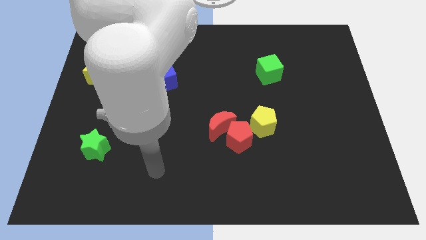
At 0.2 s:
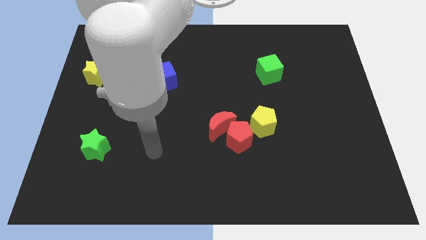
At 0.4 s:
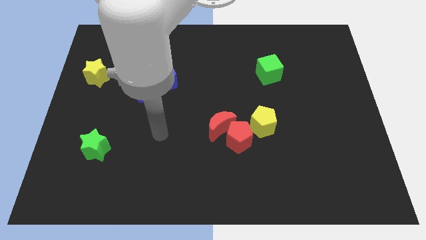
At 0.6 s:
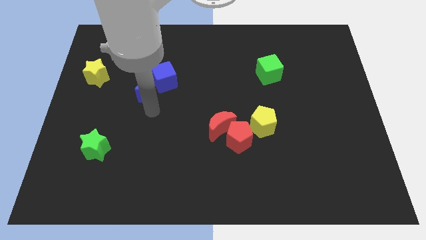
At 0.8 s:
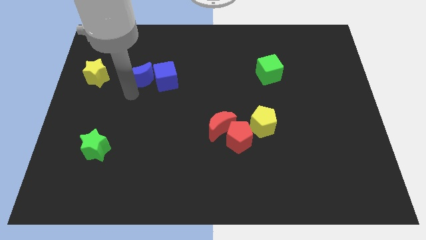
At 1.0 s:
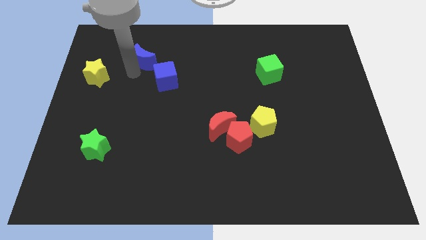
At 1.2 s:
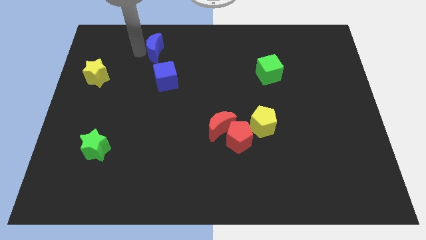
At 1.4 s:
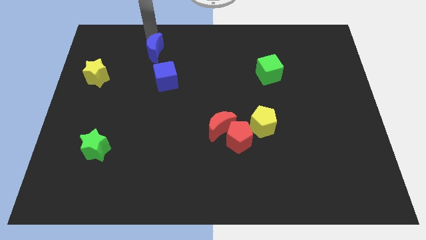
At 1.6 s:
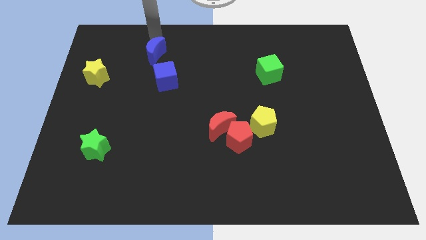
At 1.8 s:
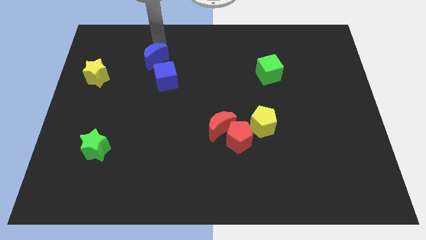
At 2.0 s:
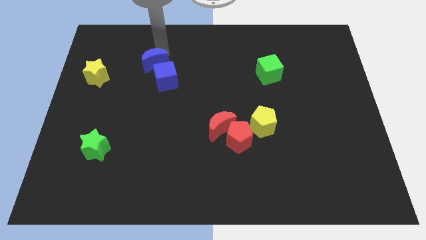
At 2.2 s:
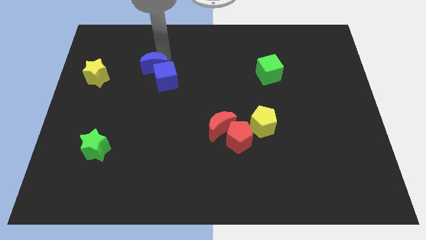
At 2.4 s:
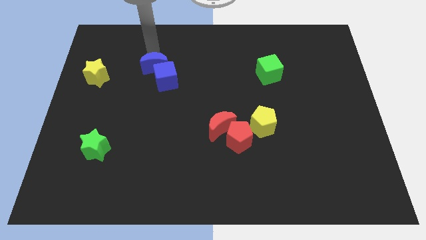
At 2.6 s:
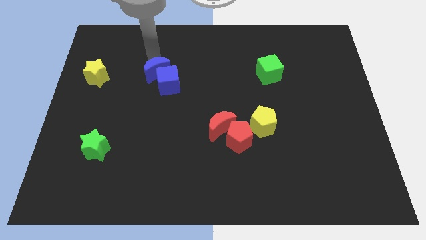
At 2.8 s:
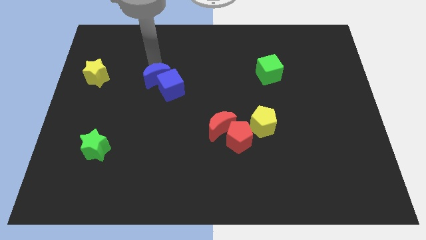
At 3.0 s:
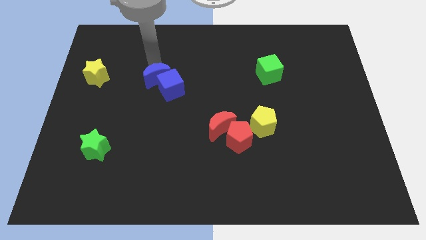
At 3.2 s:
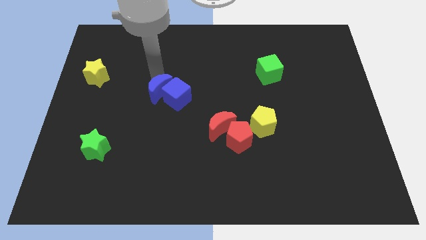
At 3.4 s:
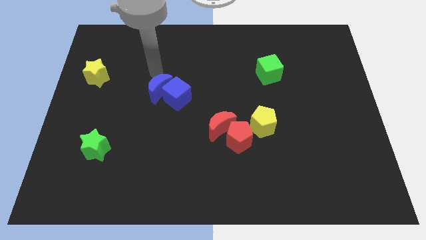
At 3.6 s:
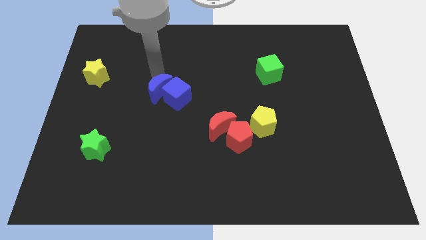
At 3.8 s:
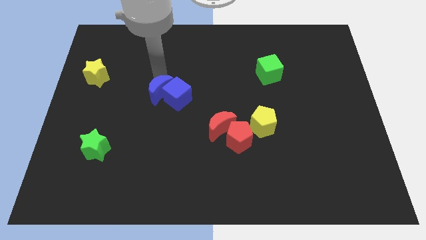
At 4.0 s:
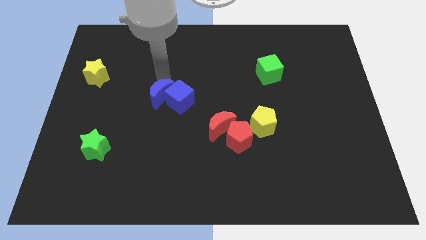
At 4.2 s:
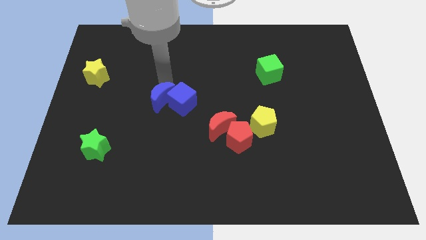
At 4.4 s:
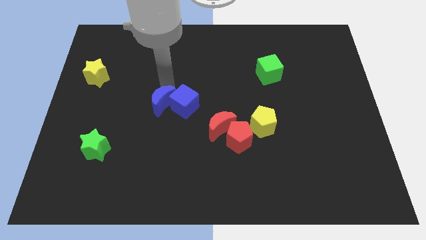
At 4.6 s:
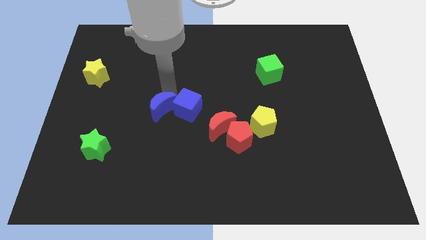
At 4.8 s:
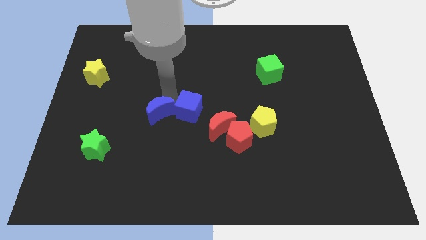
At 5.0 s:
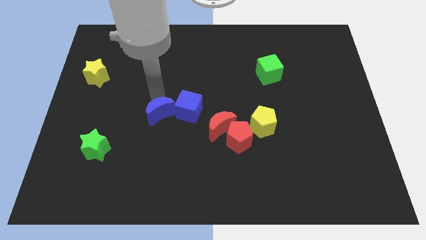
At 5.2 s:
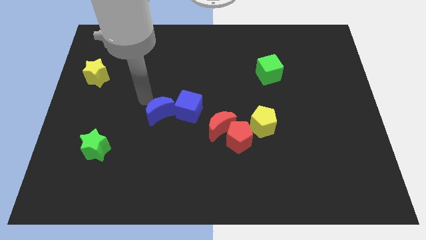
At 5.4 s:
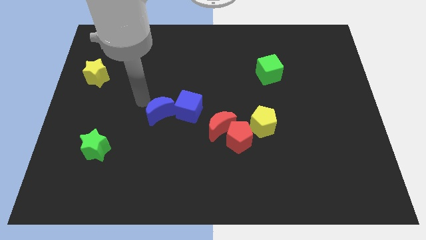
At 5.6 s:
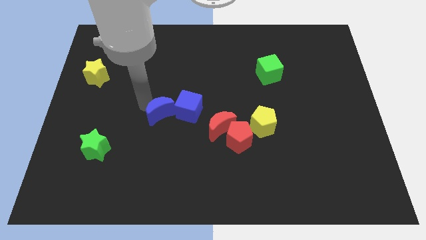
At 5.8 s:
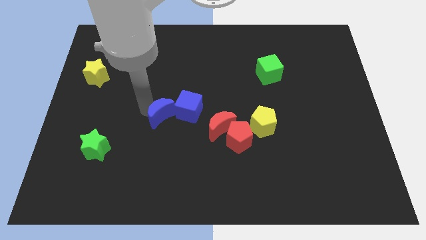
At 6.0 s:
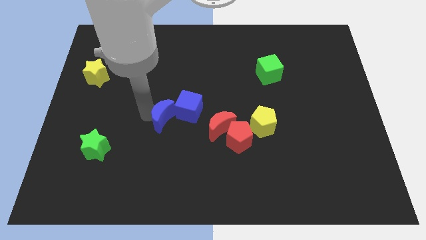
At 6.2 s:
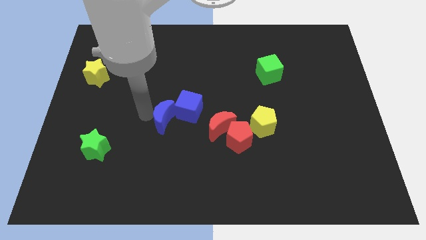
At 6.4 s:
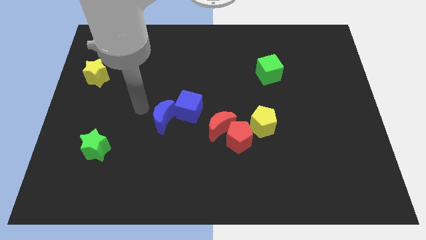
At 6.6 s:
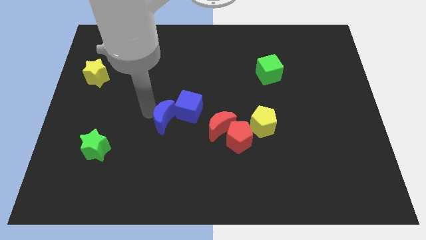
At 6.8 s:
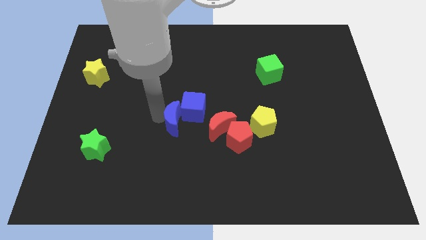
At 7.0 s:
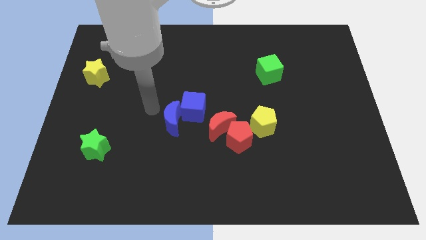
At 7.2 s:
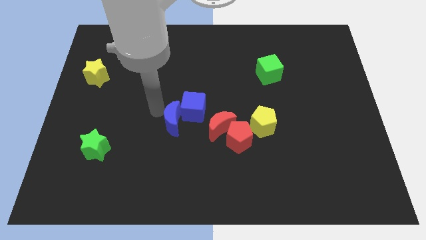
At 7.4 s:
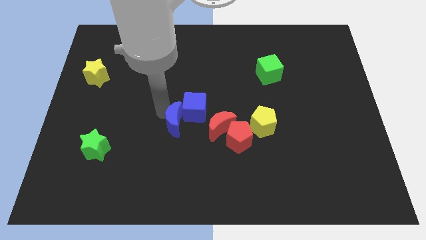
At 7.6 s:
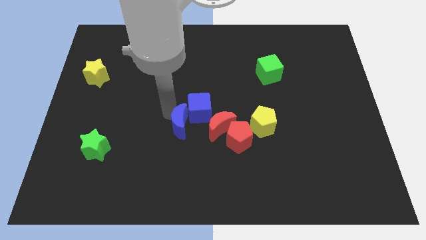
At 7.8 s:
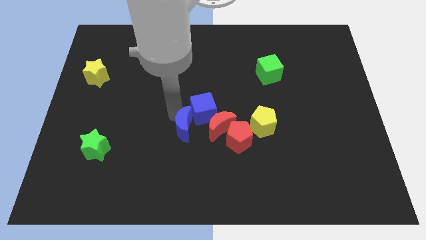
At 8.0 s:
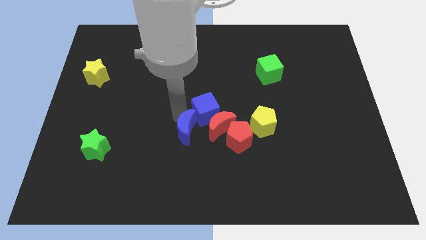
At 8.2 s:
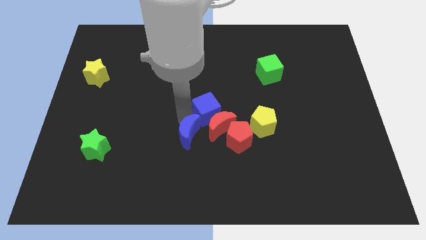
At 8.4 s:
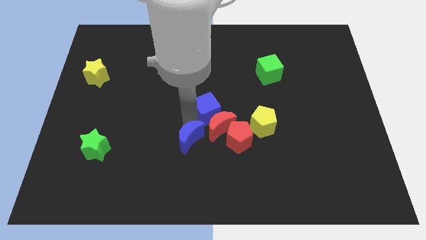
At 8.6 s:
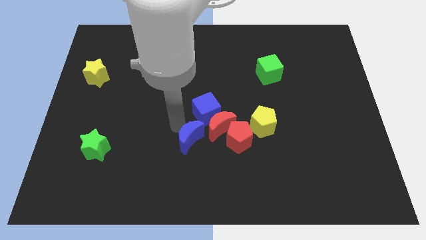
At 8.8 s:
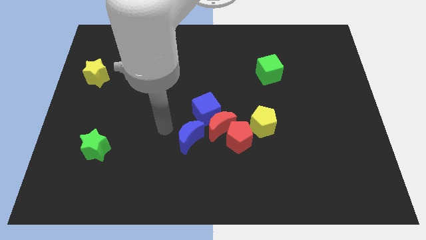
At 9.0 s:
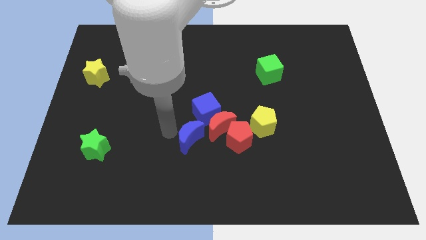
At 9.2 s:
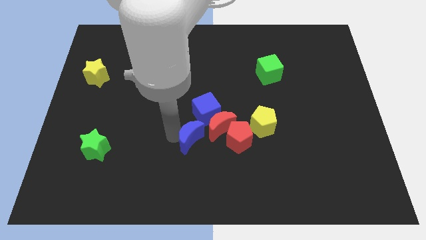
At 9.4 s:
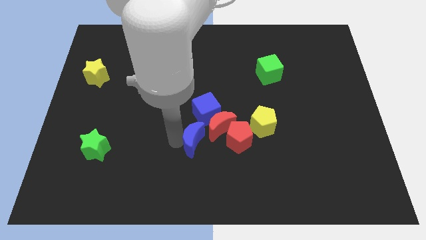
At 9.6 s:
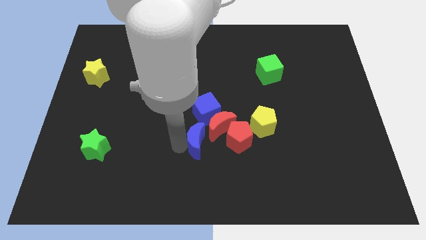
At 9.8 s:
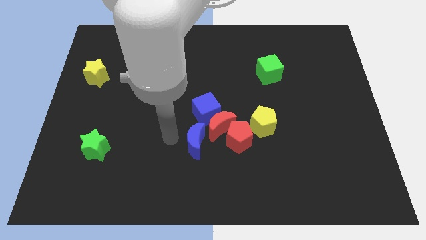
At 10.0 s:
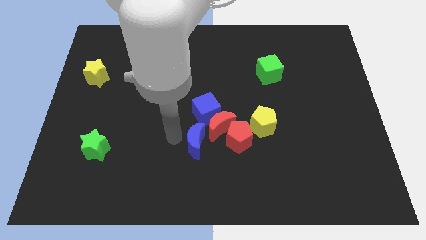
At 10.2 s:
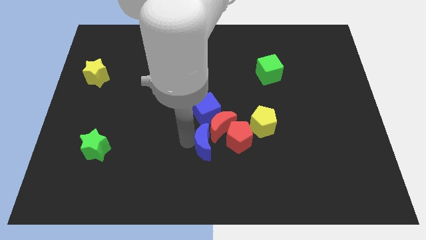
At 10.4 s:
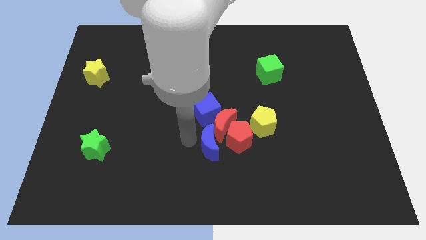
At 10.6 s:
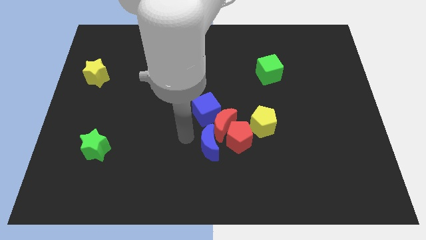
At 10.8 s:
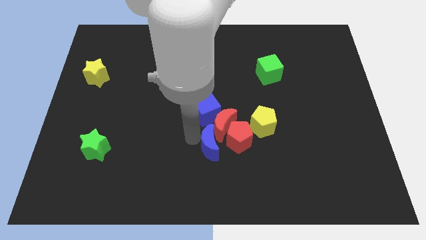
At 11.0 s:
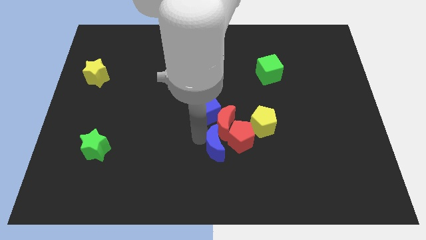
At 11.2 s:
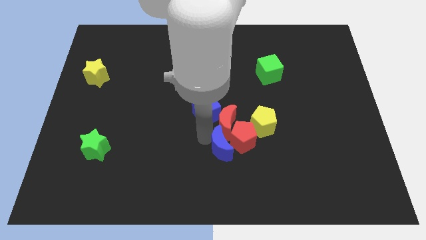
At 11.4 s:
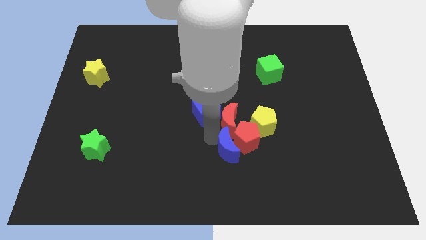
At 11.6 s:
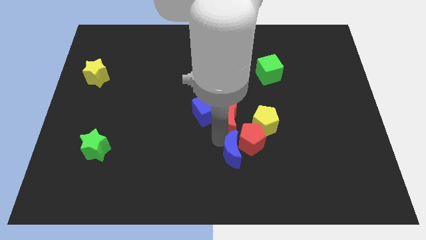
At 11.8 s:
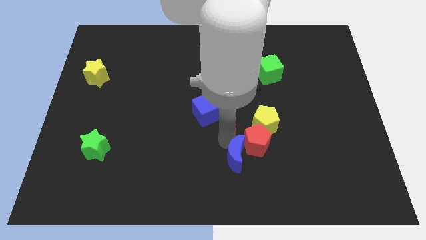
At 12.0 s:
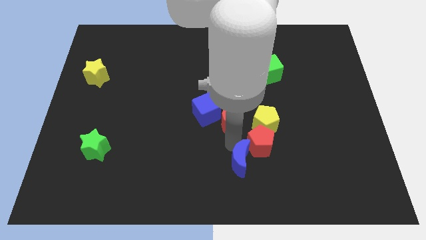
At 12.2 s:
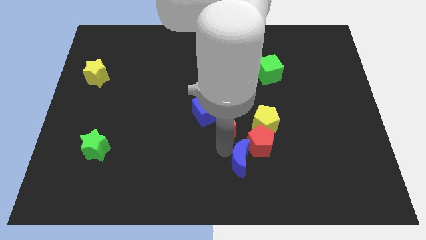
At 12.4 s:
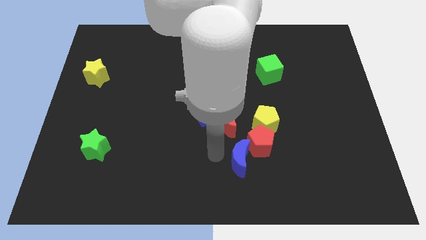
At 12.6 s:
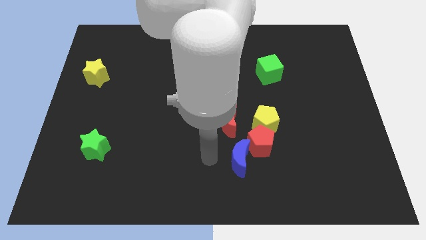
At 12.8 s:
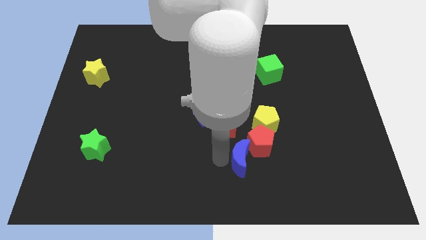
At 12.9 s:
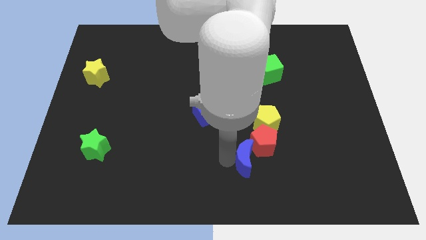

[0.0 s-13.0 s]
push the blue moon diagonally down and to the right of the red moon
